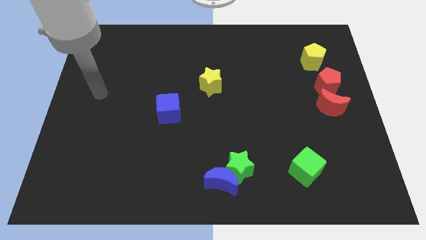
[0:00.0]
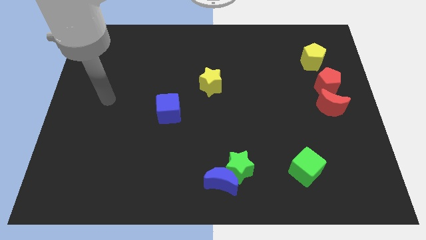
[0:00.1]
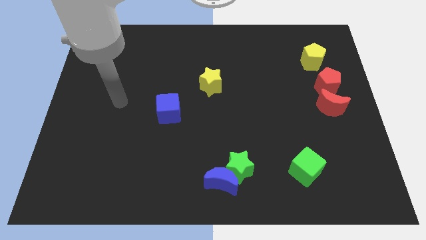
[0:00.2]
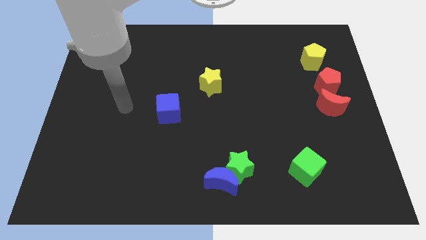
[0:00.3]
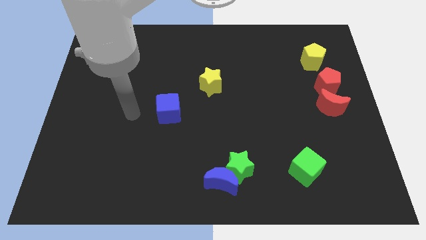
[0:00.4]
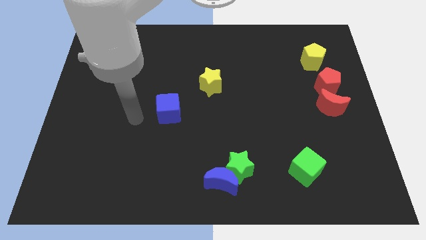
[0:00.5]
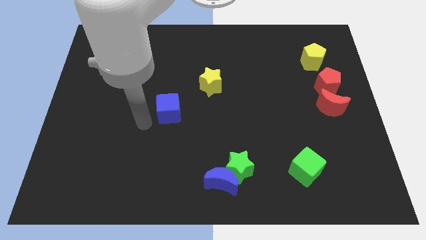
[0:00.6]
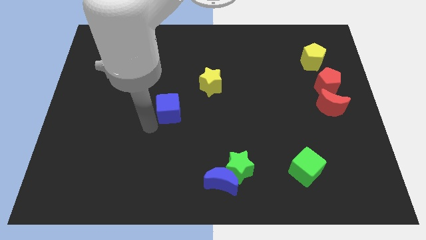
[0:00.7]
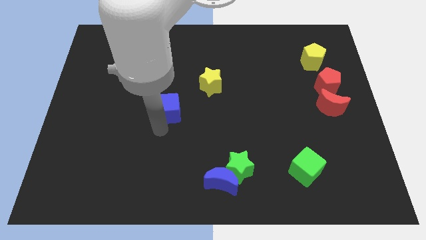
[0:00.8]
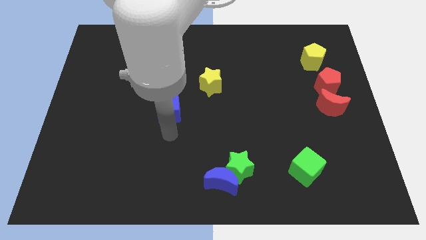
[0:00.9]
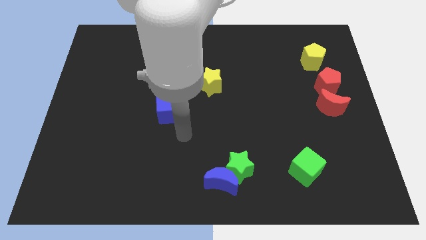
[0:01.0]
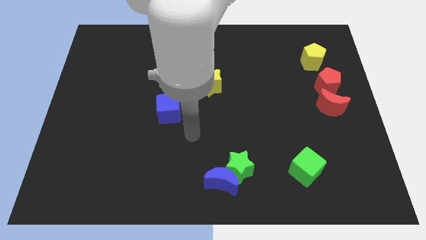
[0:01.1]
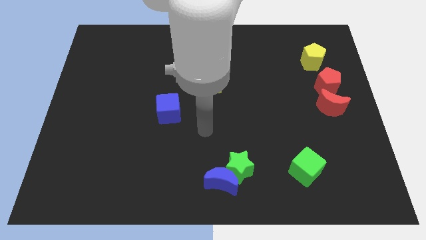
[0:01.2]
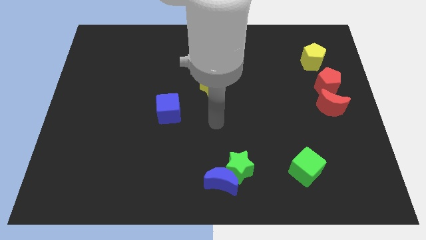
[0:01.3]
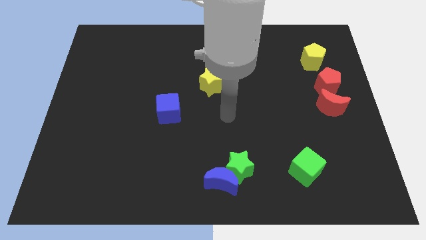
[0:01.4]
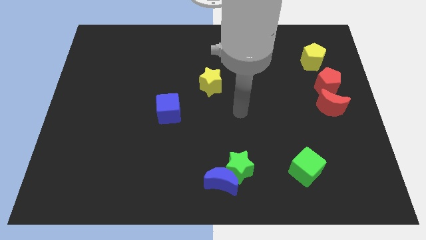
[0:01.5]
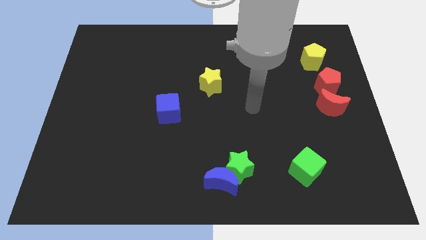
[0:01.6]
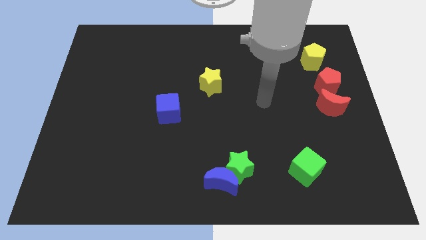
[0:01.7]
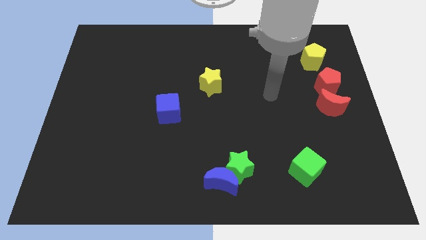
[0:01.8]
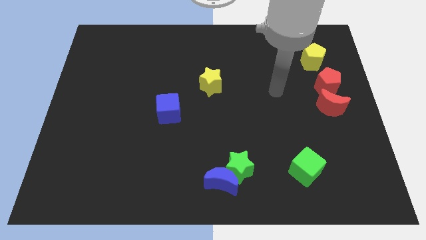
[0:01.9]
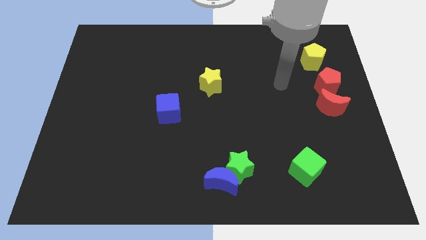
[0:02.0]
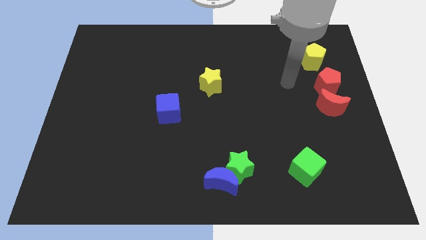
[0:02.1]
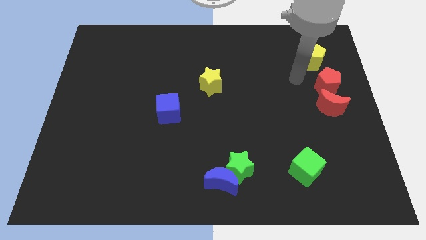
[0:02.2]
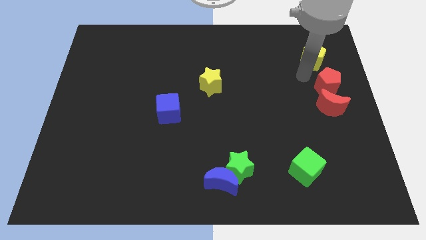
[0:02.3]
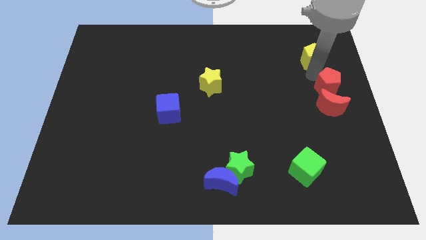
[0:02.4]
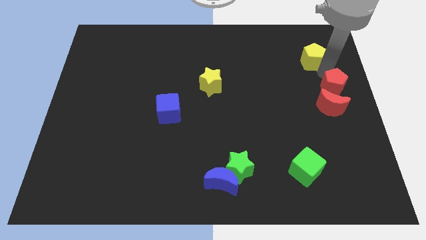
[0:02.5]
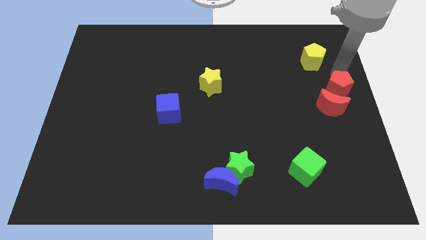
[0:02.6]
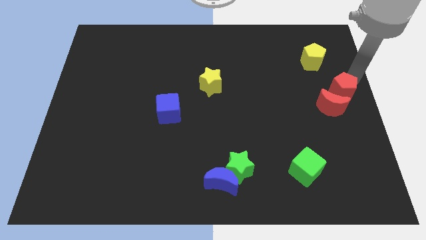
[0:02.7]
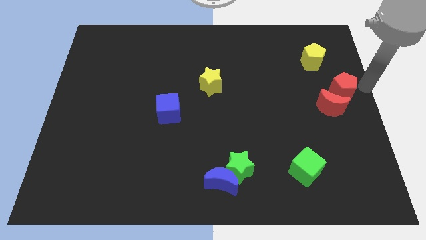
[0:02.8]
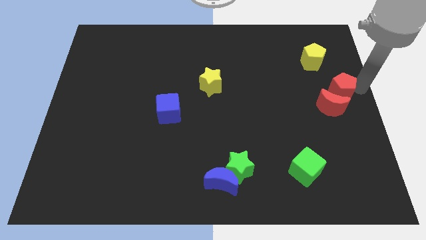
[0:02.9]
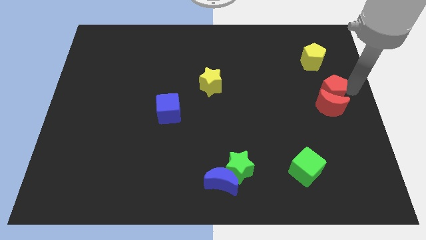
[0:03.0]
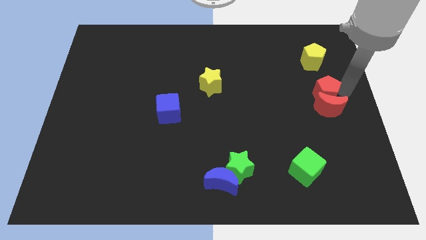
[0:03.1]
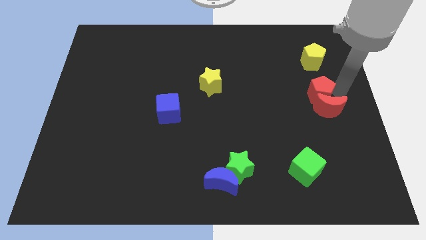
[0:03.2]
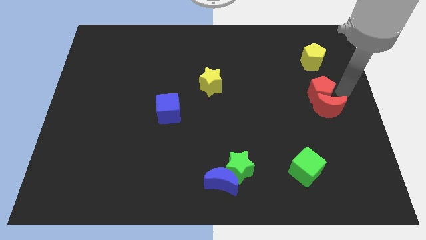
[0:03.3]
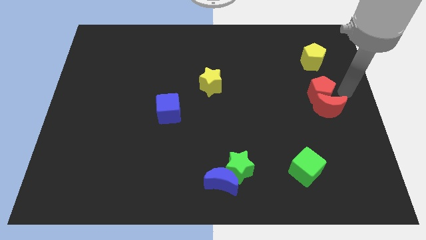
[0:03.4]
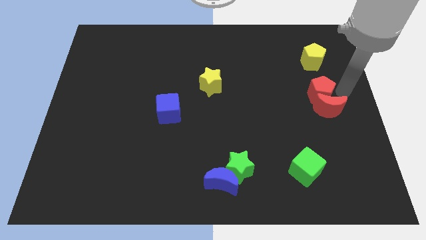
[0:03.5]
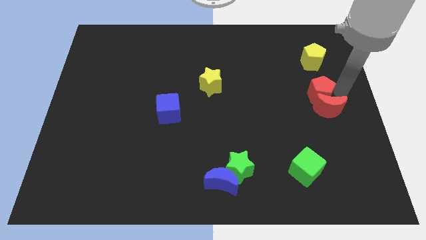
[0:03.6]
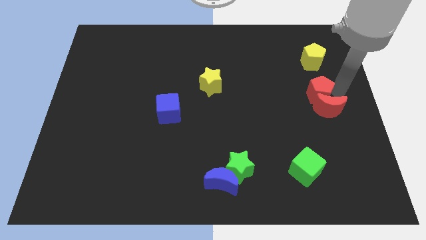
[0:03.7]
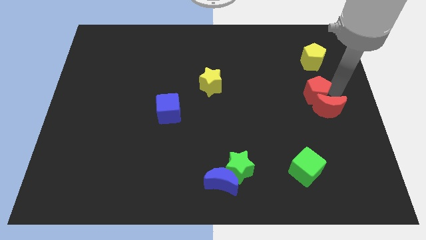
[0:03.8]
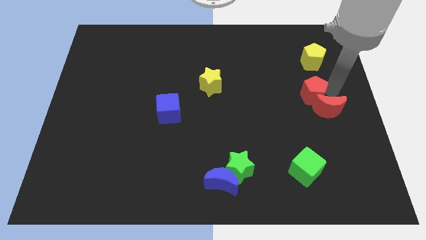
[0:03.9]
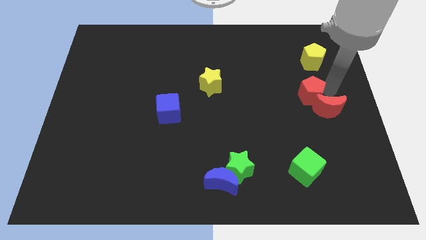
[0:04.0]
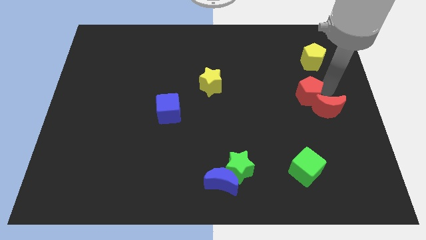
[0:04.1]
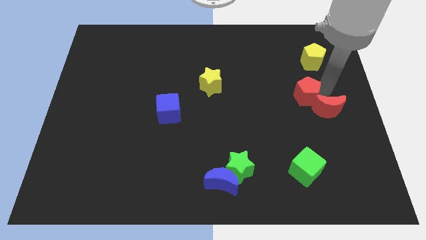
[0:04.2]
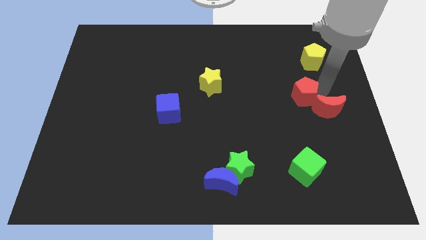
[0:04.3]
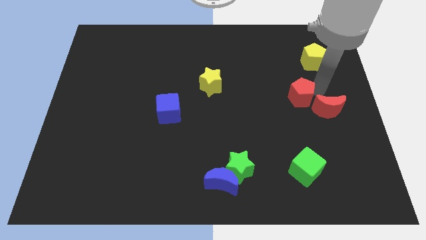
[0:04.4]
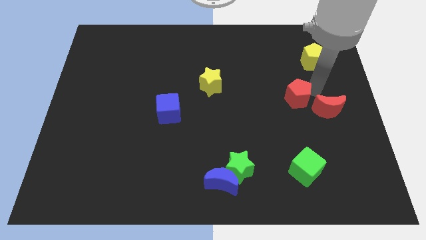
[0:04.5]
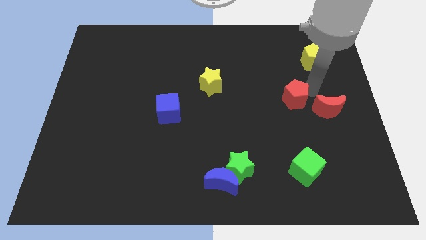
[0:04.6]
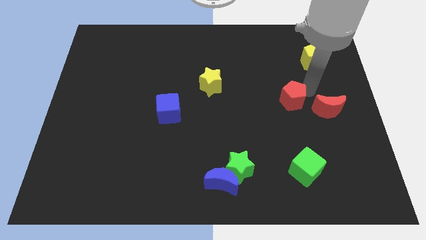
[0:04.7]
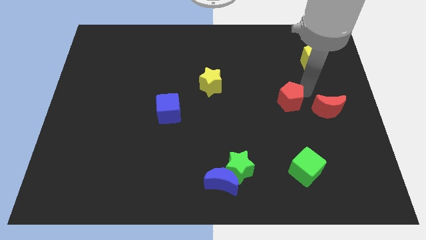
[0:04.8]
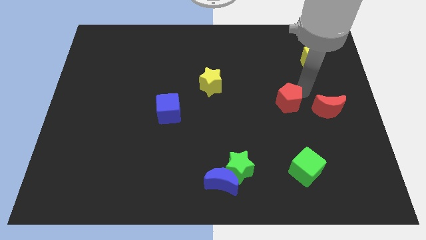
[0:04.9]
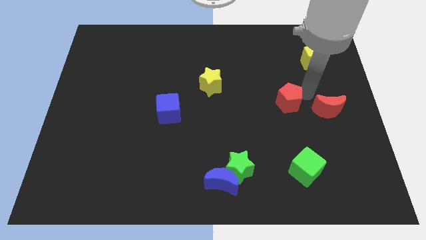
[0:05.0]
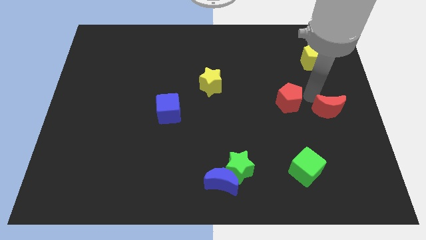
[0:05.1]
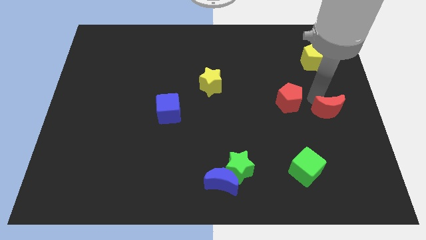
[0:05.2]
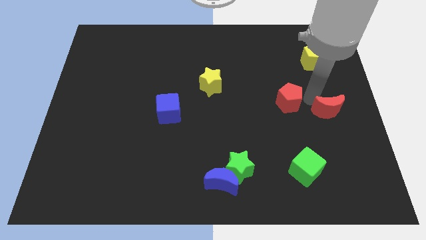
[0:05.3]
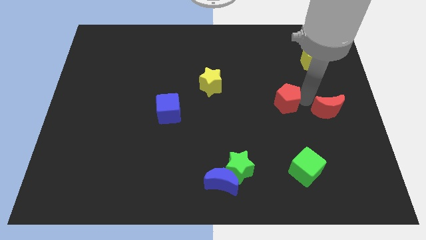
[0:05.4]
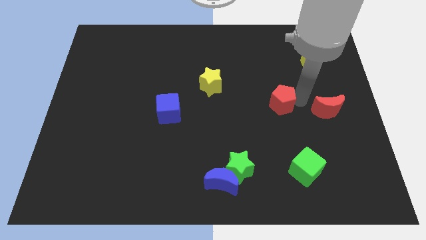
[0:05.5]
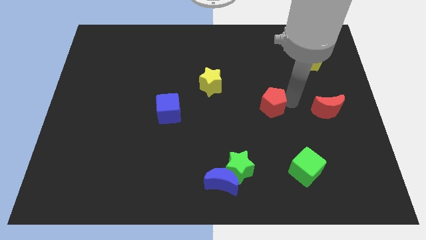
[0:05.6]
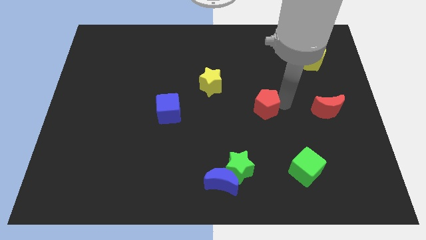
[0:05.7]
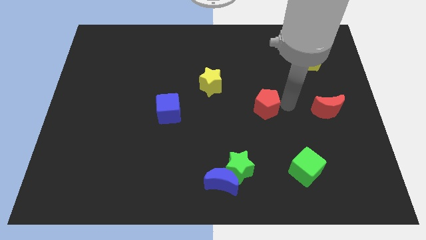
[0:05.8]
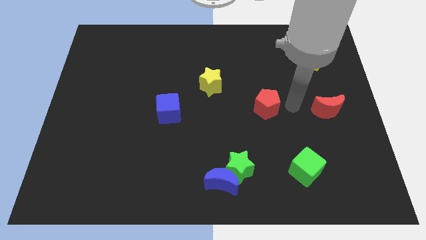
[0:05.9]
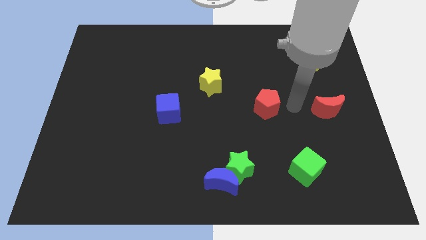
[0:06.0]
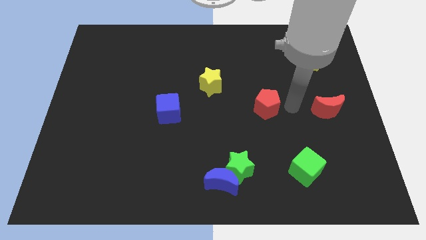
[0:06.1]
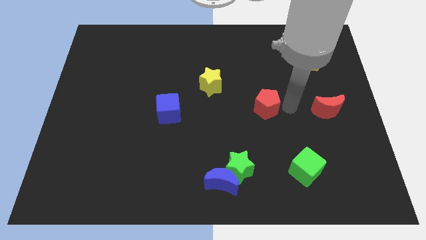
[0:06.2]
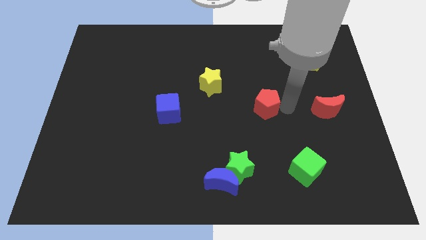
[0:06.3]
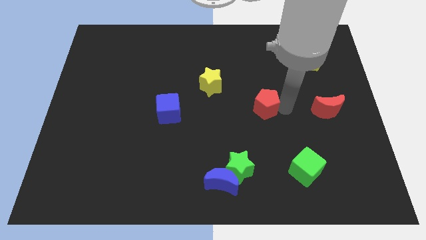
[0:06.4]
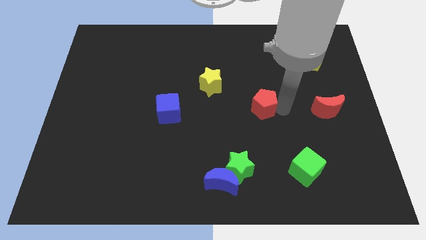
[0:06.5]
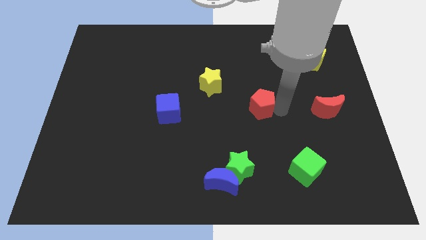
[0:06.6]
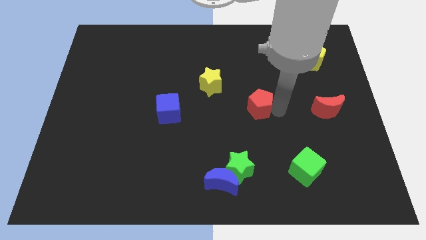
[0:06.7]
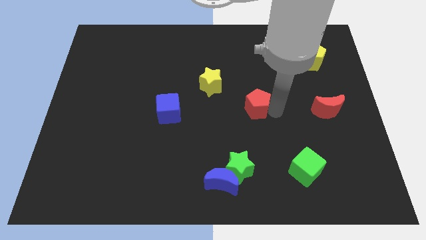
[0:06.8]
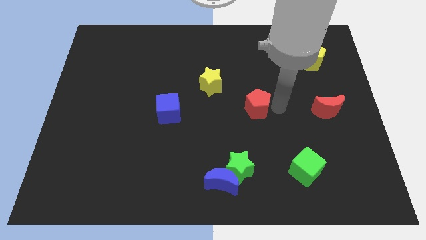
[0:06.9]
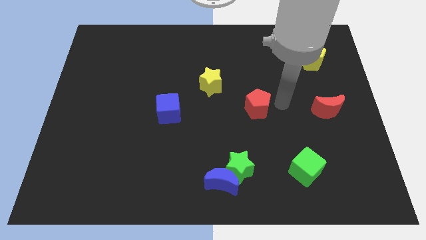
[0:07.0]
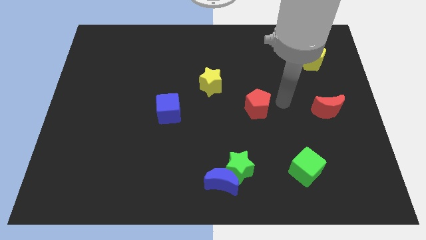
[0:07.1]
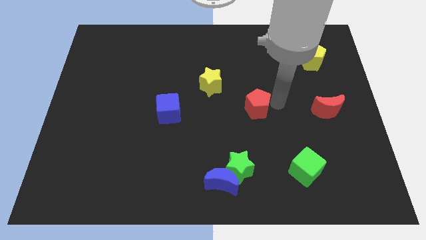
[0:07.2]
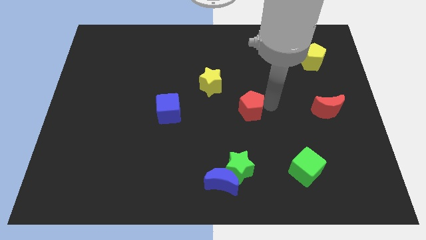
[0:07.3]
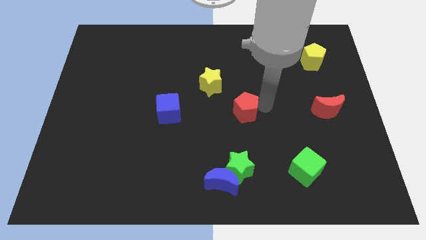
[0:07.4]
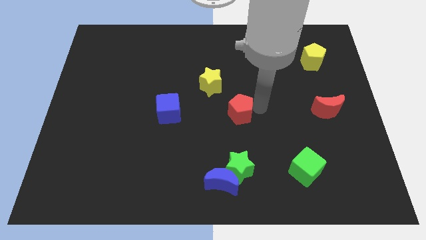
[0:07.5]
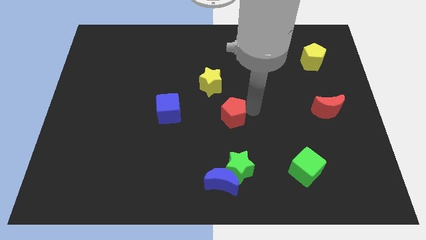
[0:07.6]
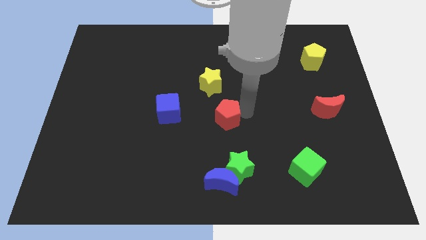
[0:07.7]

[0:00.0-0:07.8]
move the red pentagon to the bottom of the yellow star
